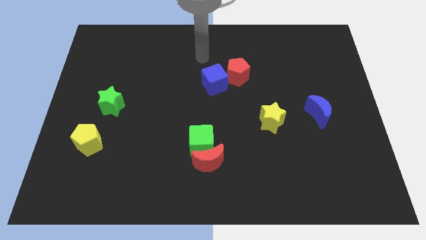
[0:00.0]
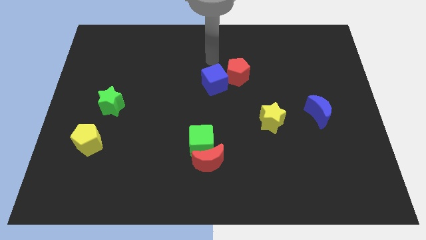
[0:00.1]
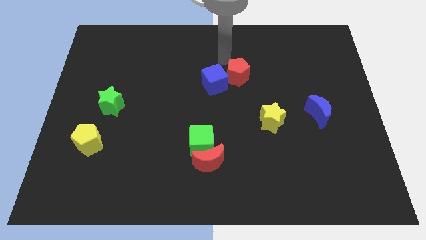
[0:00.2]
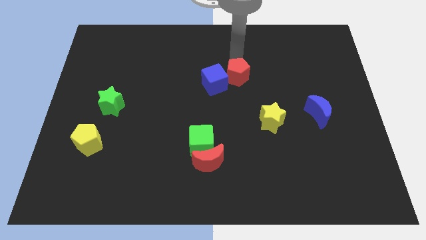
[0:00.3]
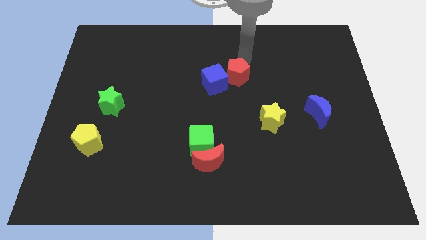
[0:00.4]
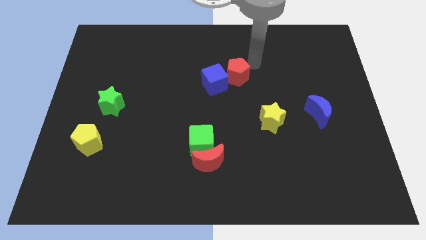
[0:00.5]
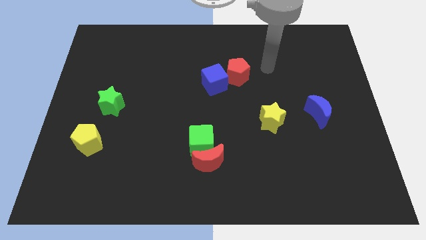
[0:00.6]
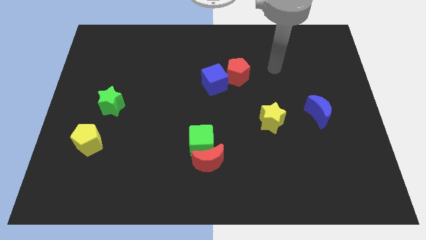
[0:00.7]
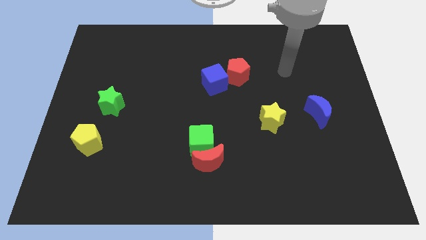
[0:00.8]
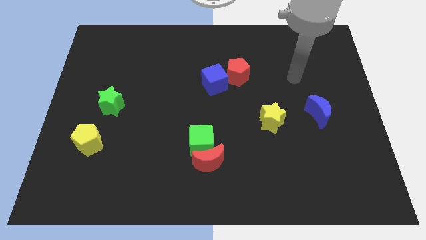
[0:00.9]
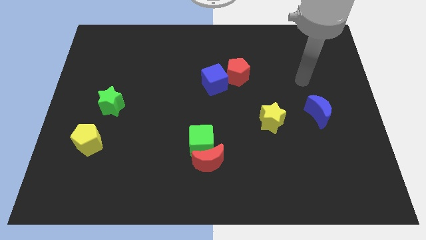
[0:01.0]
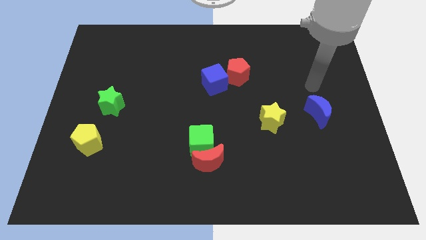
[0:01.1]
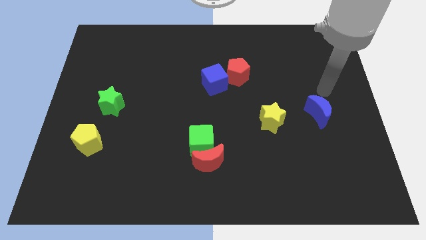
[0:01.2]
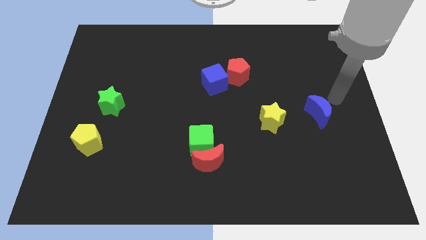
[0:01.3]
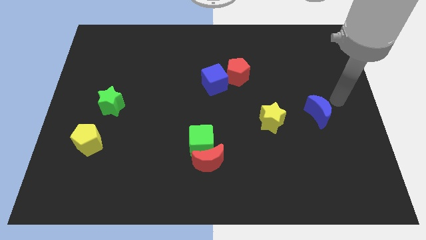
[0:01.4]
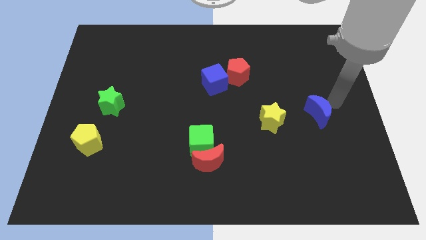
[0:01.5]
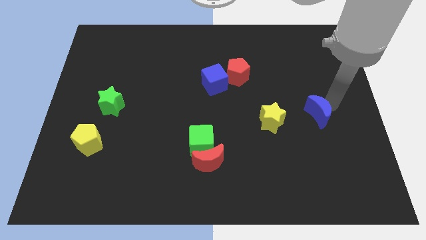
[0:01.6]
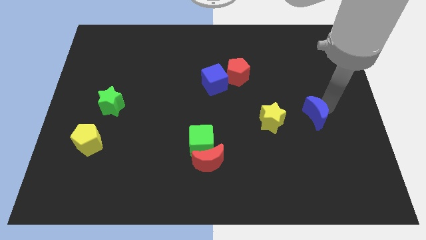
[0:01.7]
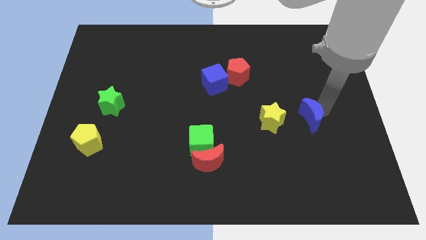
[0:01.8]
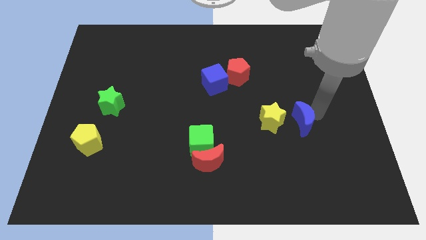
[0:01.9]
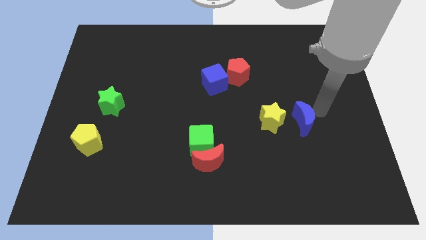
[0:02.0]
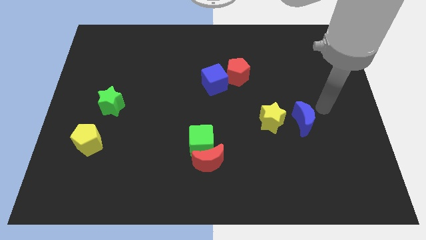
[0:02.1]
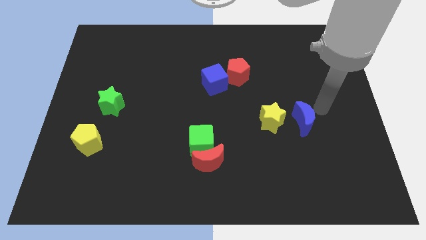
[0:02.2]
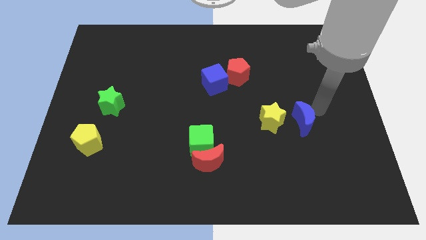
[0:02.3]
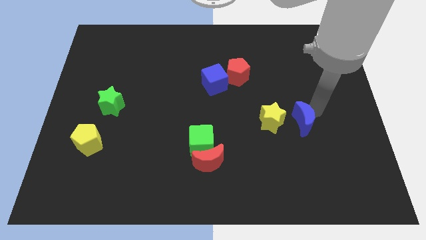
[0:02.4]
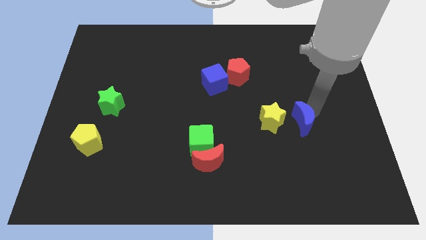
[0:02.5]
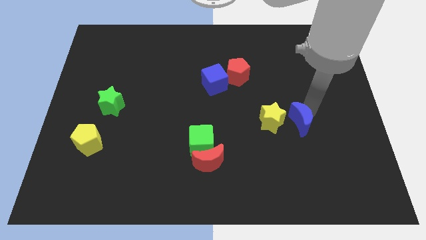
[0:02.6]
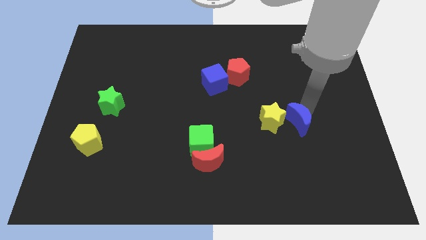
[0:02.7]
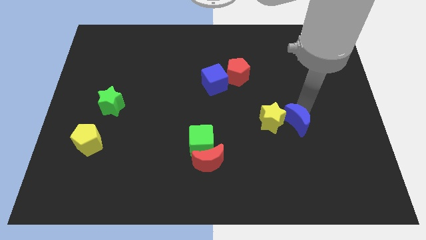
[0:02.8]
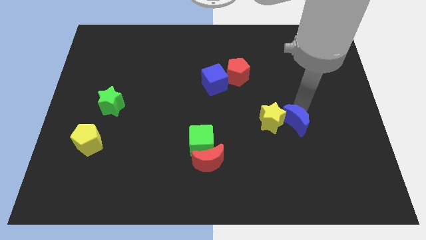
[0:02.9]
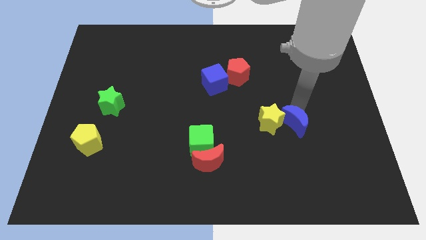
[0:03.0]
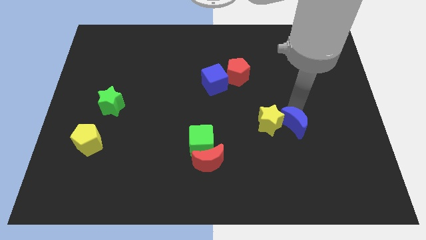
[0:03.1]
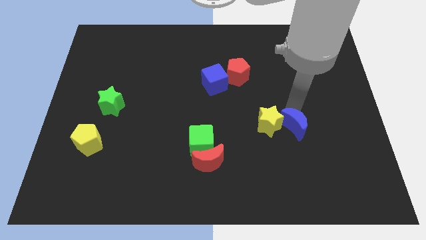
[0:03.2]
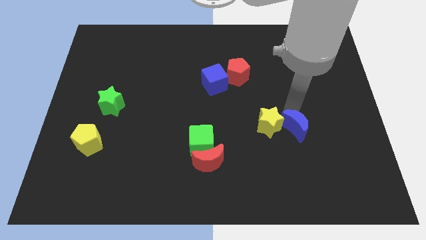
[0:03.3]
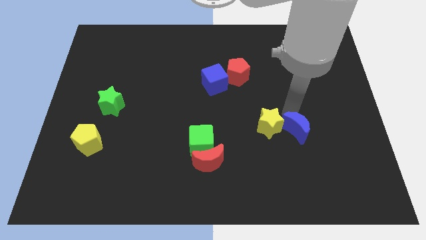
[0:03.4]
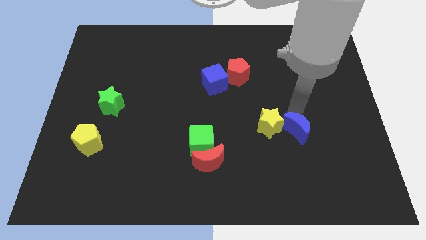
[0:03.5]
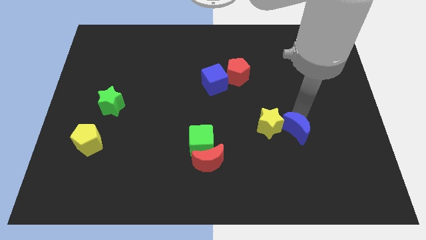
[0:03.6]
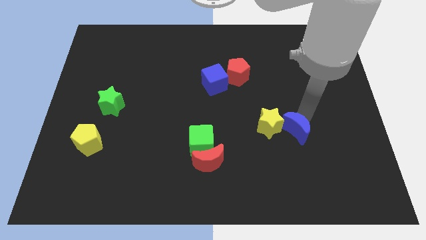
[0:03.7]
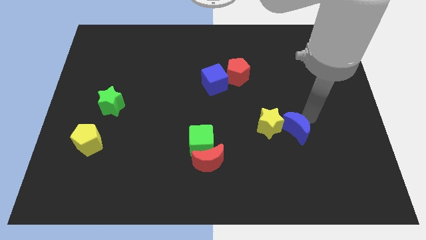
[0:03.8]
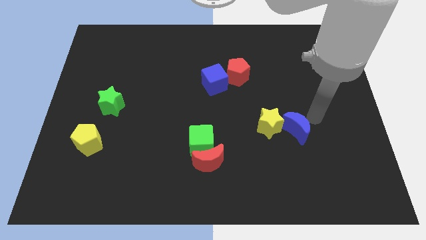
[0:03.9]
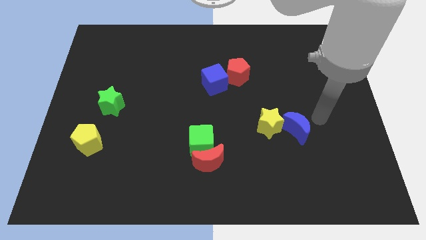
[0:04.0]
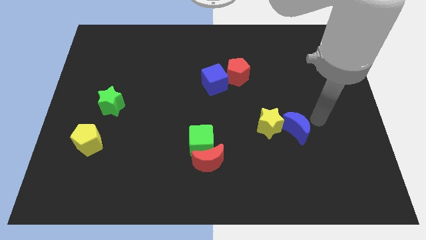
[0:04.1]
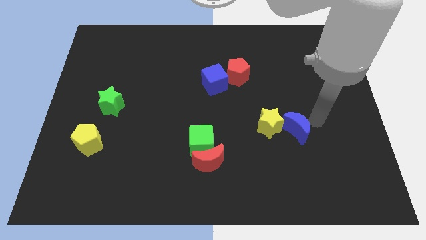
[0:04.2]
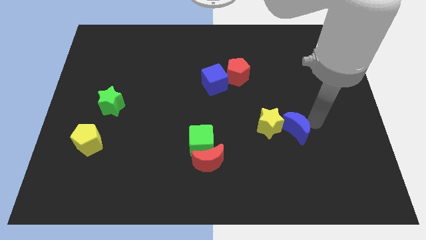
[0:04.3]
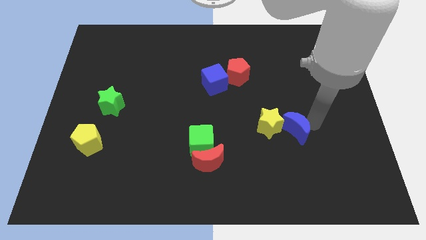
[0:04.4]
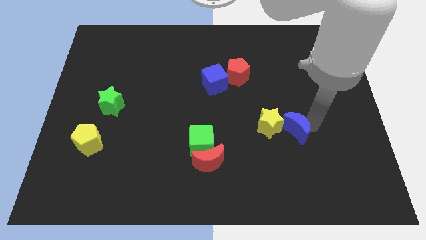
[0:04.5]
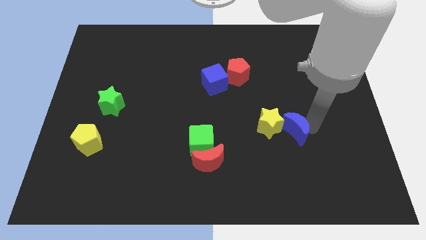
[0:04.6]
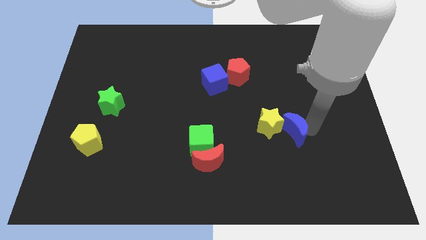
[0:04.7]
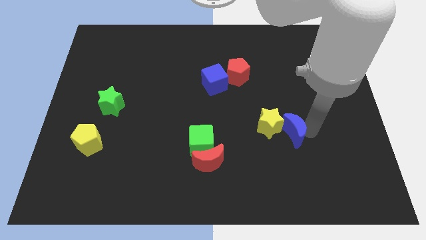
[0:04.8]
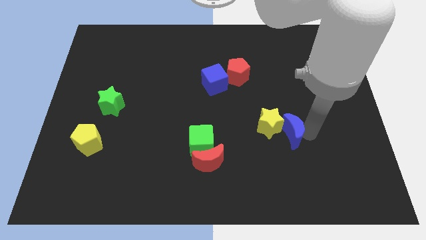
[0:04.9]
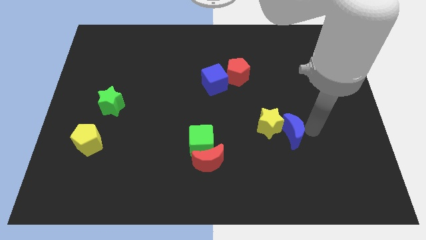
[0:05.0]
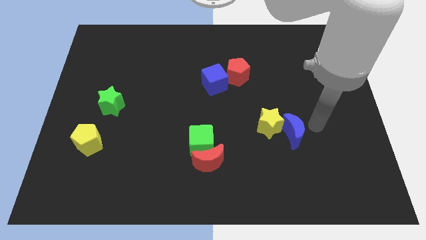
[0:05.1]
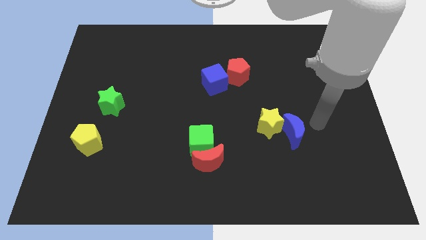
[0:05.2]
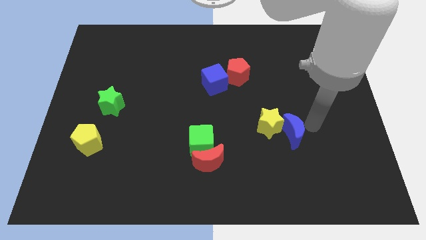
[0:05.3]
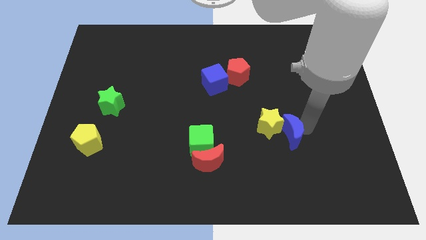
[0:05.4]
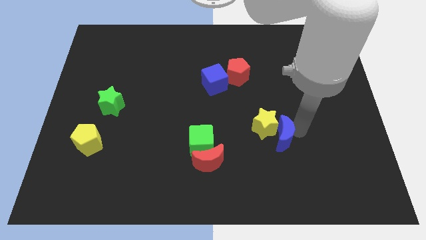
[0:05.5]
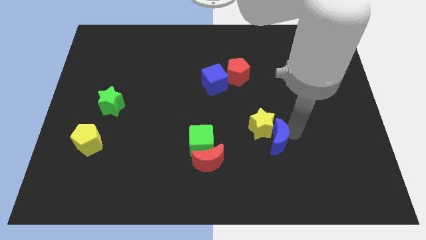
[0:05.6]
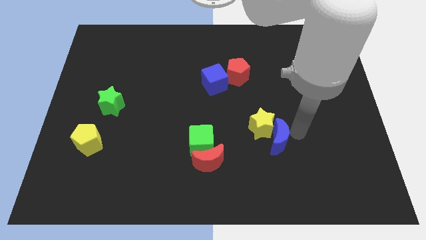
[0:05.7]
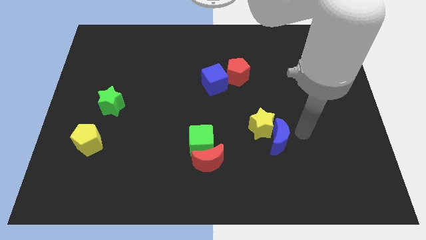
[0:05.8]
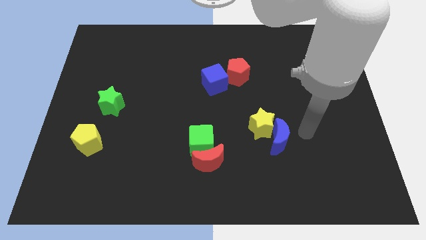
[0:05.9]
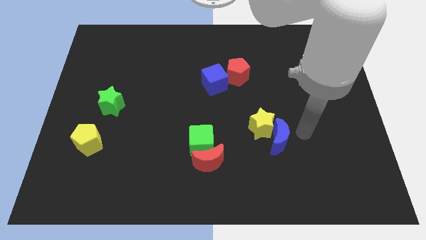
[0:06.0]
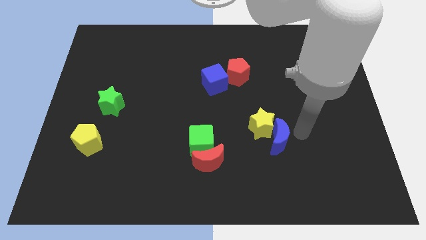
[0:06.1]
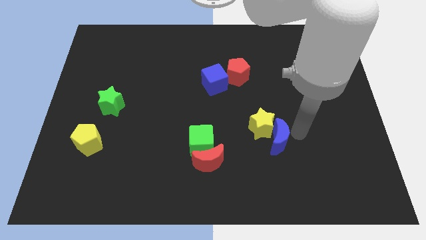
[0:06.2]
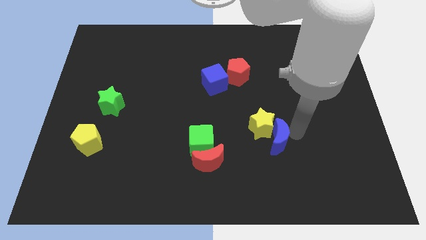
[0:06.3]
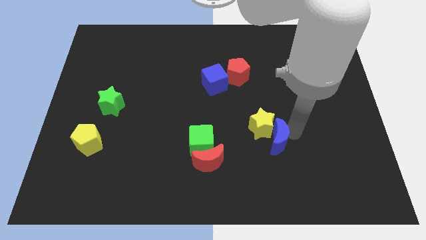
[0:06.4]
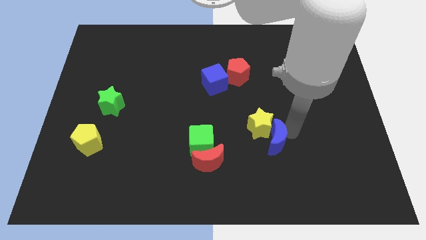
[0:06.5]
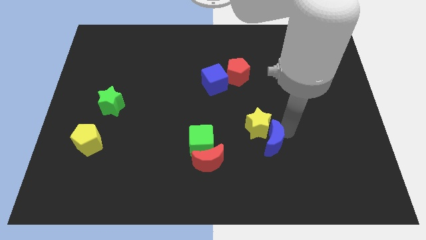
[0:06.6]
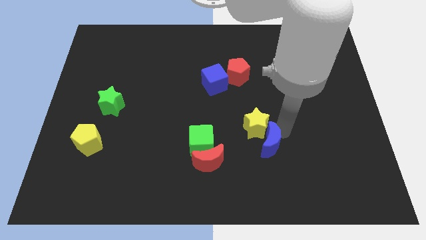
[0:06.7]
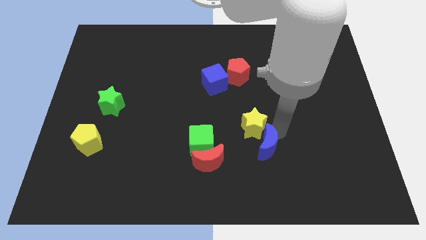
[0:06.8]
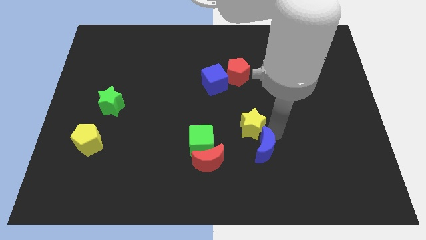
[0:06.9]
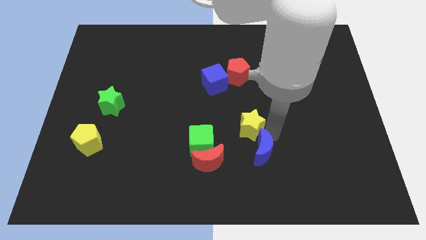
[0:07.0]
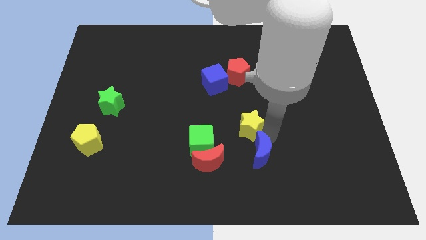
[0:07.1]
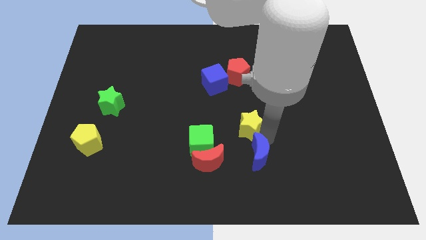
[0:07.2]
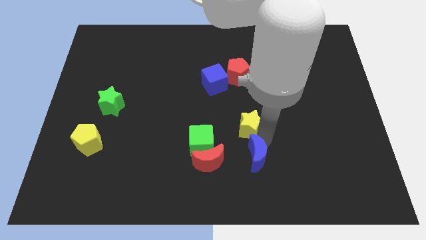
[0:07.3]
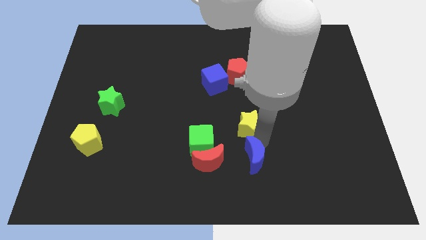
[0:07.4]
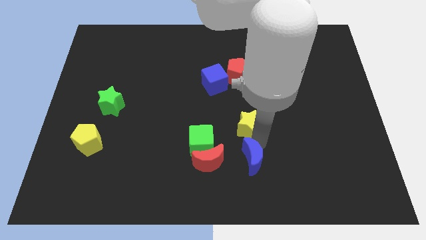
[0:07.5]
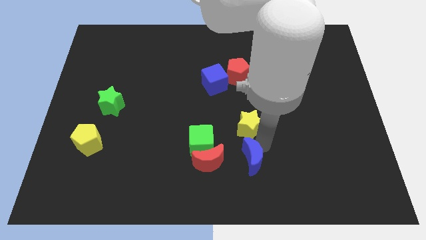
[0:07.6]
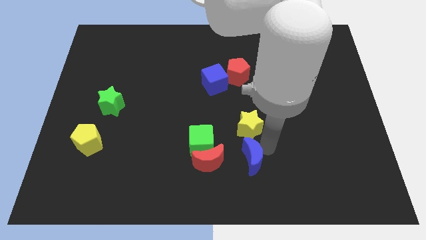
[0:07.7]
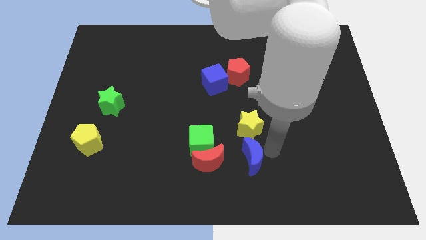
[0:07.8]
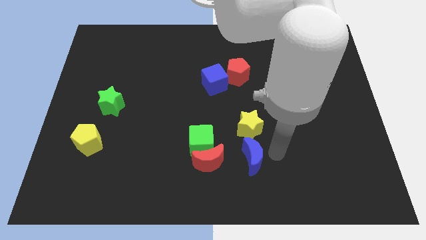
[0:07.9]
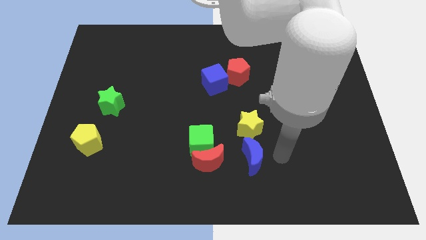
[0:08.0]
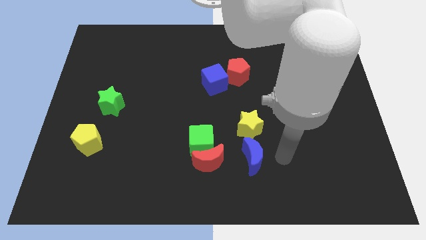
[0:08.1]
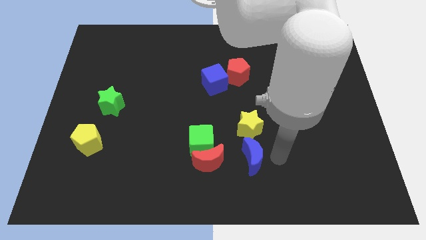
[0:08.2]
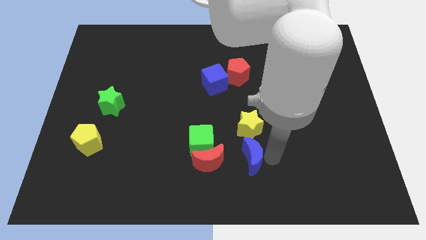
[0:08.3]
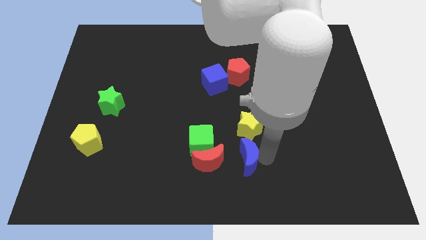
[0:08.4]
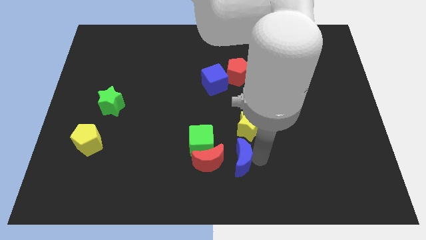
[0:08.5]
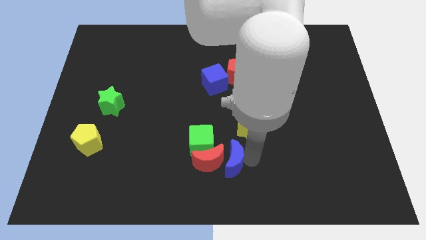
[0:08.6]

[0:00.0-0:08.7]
slide the blue moon towards the red moon
